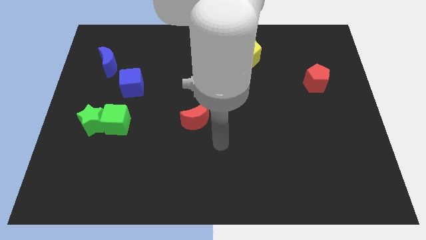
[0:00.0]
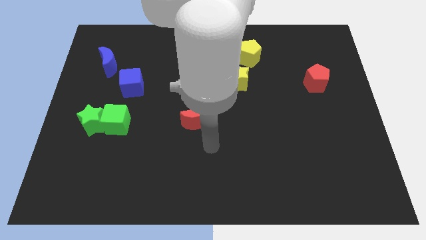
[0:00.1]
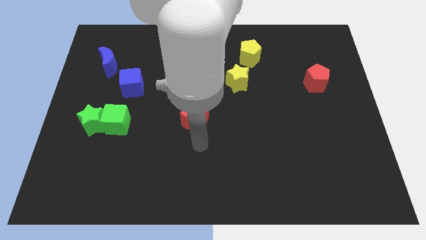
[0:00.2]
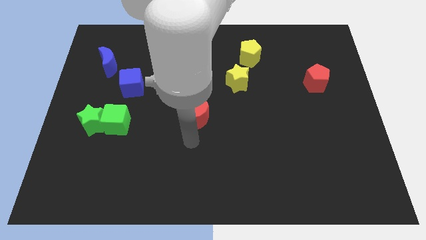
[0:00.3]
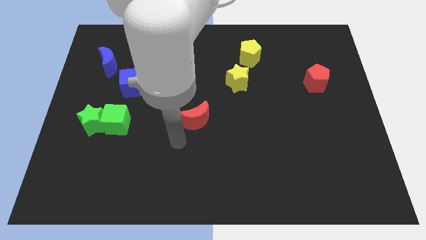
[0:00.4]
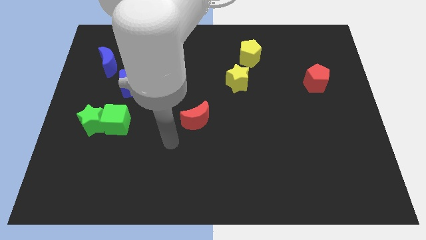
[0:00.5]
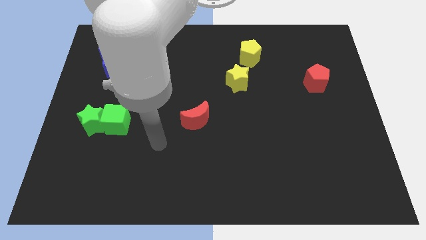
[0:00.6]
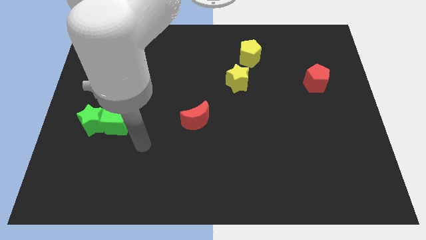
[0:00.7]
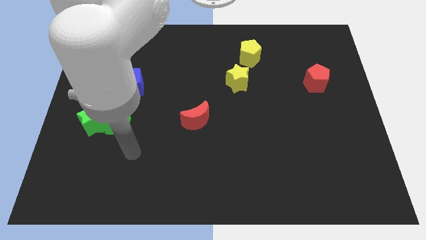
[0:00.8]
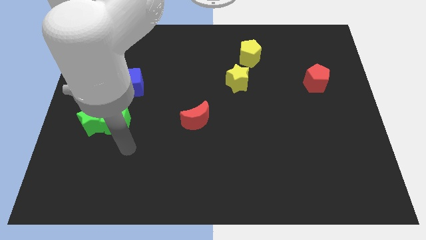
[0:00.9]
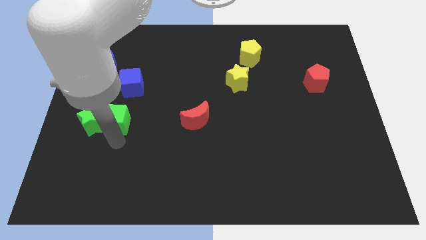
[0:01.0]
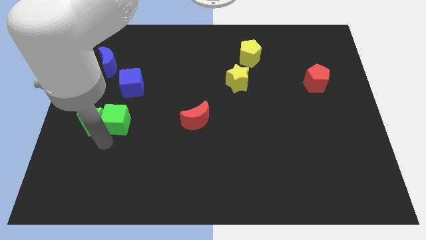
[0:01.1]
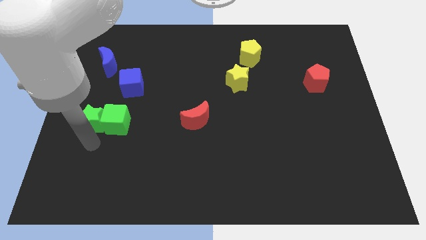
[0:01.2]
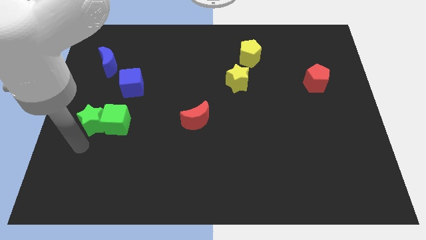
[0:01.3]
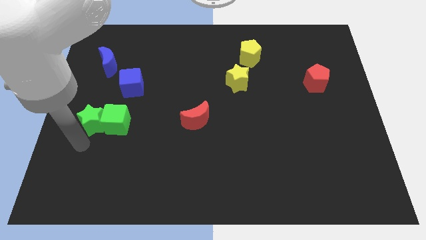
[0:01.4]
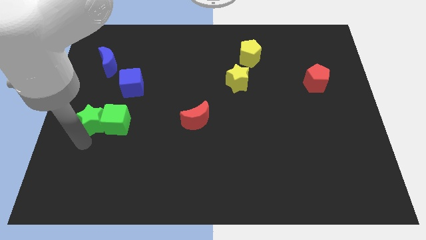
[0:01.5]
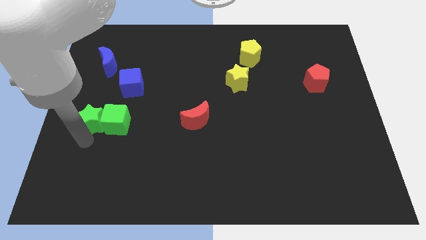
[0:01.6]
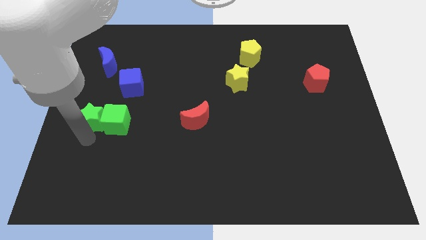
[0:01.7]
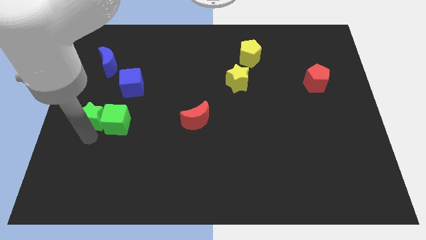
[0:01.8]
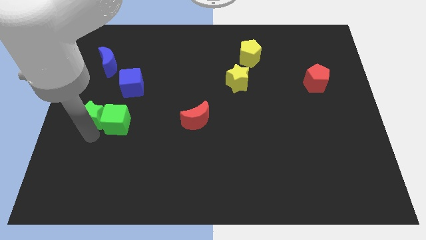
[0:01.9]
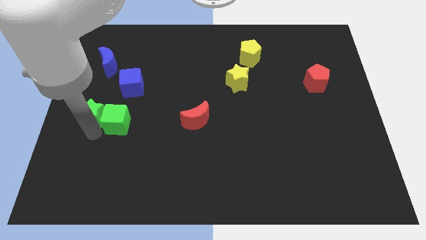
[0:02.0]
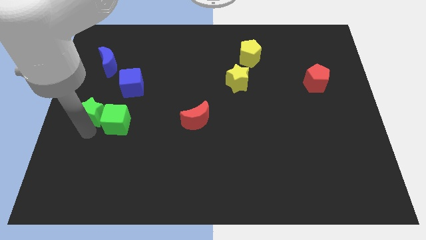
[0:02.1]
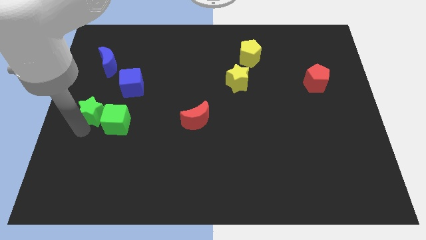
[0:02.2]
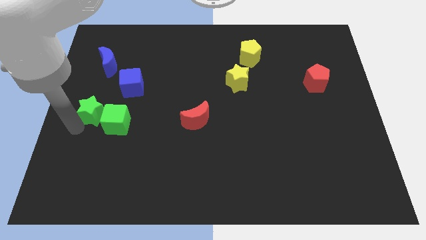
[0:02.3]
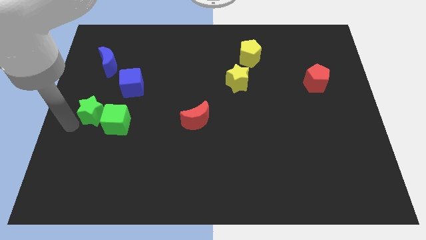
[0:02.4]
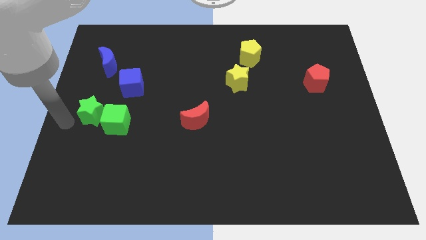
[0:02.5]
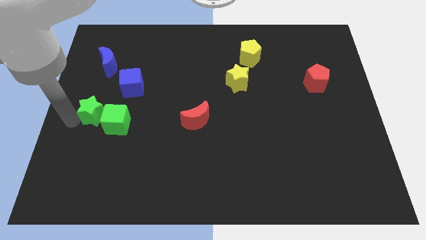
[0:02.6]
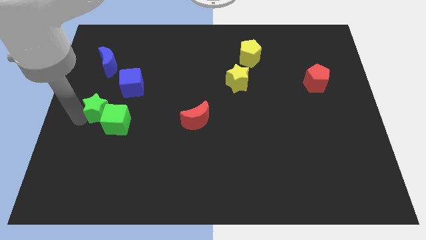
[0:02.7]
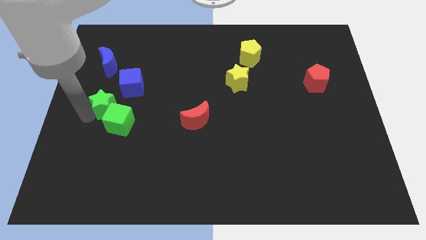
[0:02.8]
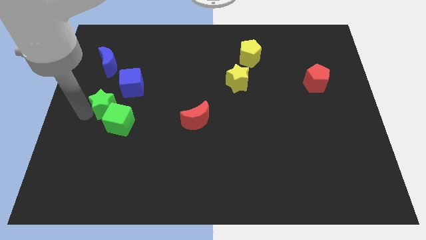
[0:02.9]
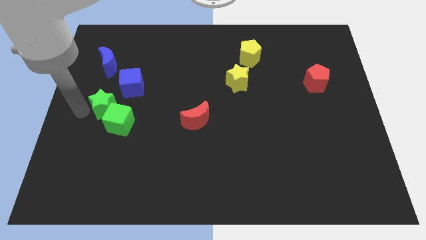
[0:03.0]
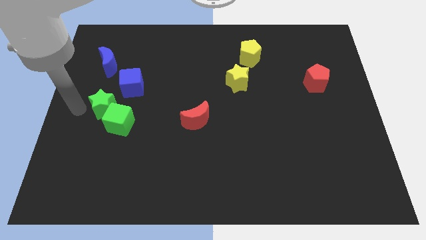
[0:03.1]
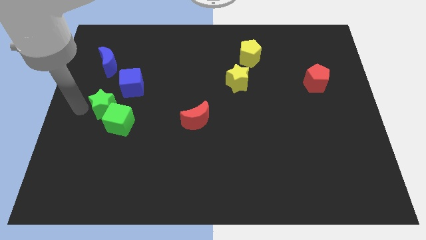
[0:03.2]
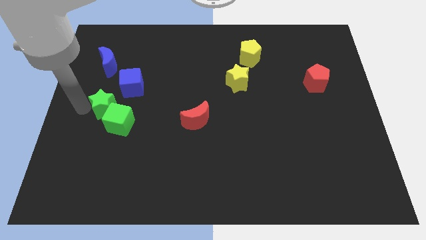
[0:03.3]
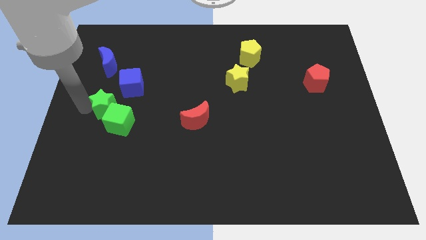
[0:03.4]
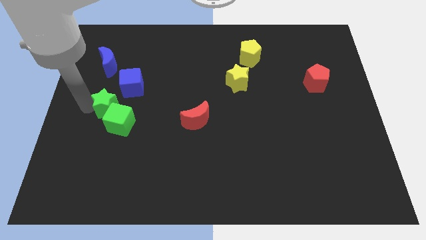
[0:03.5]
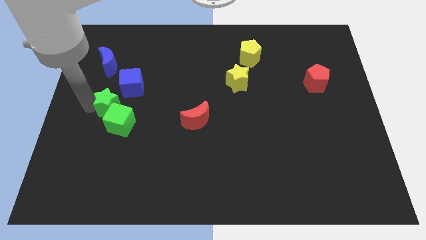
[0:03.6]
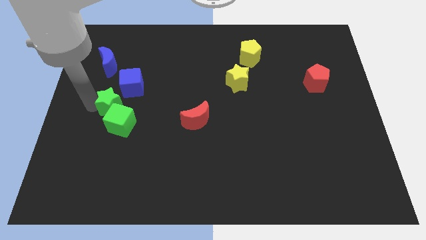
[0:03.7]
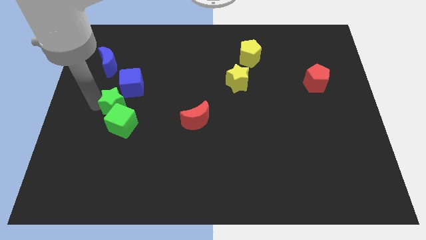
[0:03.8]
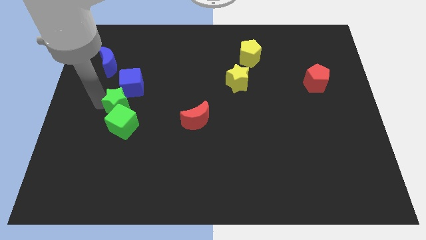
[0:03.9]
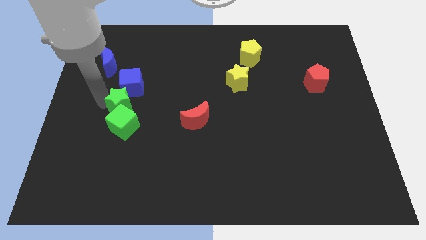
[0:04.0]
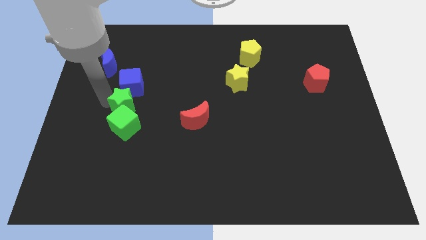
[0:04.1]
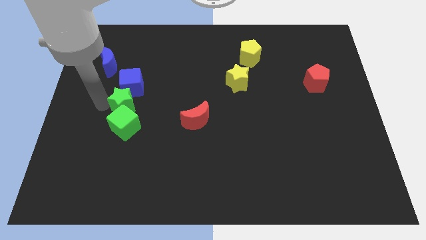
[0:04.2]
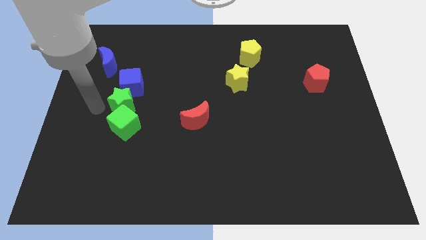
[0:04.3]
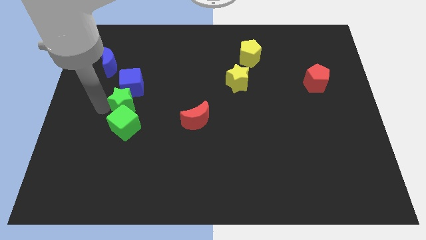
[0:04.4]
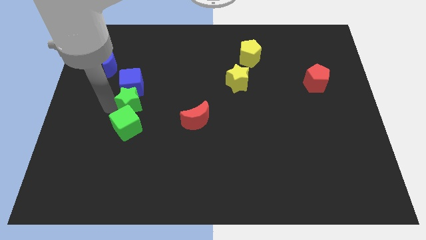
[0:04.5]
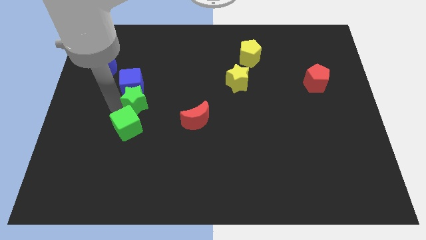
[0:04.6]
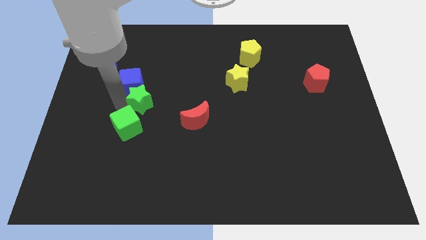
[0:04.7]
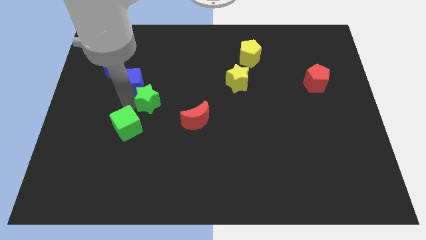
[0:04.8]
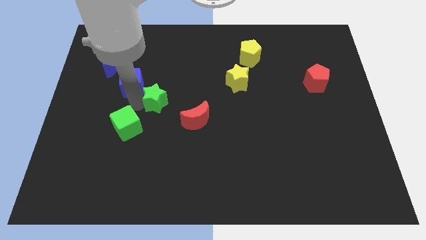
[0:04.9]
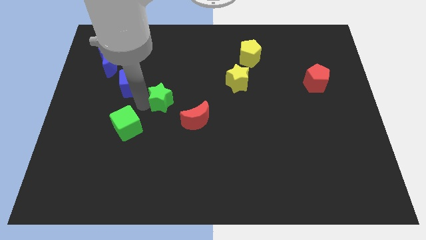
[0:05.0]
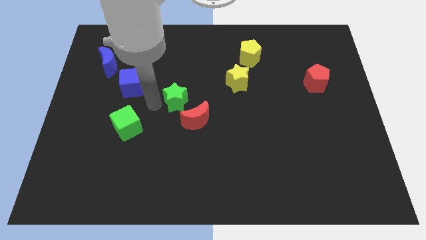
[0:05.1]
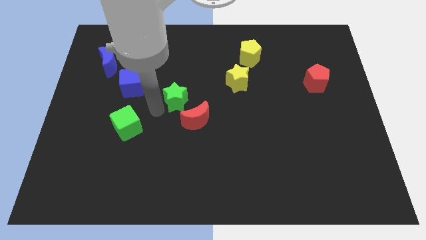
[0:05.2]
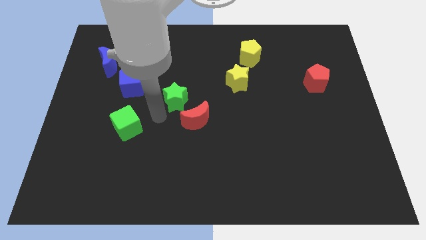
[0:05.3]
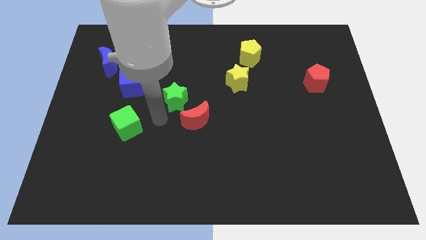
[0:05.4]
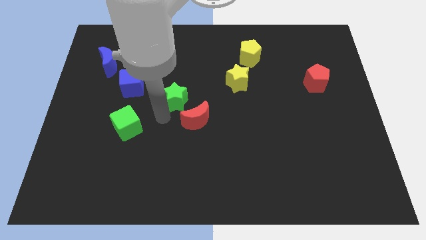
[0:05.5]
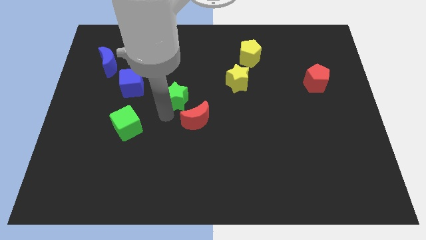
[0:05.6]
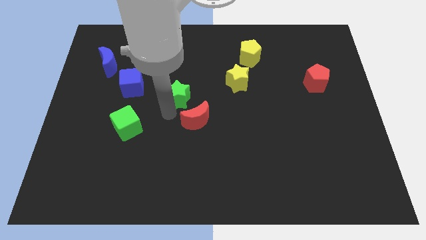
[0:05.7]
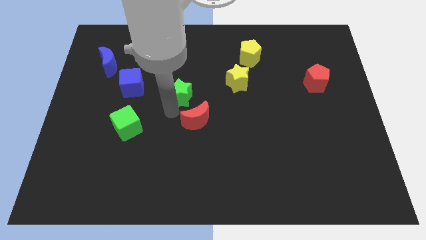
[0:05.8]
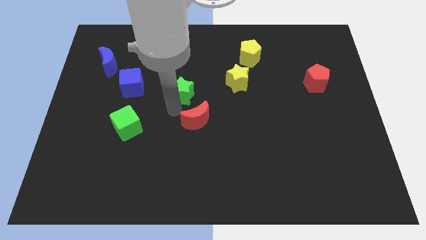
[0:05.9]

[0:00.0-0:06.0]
push the green star left of the yellow star

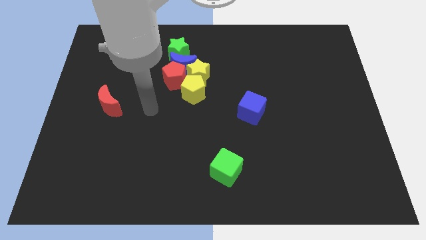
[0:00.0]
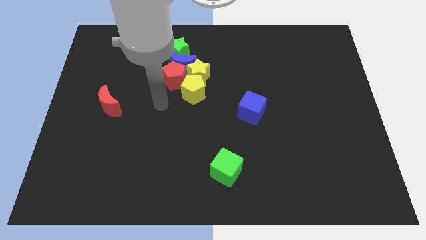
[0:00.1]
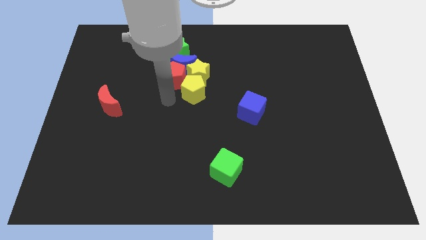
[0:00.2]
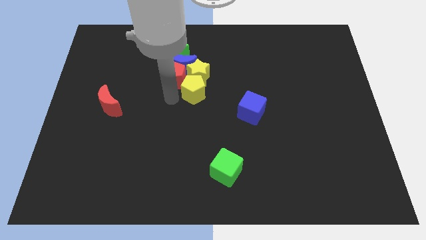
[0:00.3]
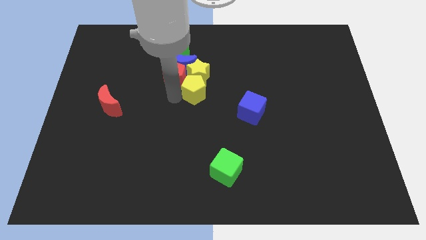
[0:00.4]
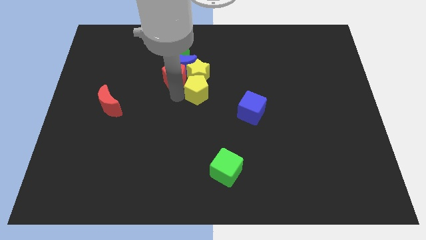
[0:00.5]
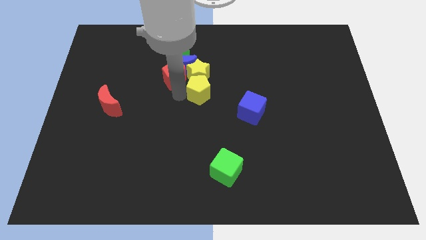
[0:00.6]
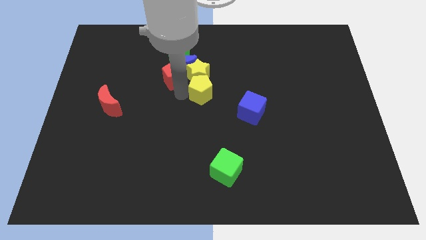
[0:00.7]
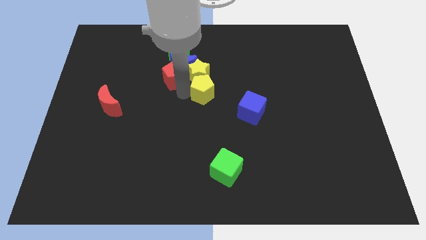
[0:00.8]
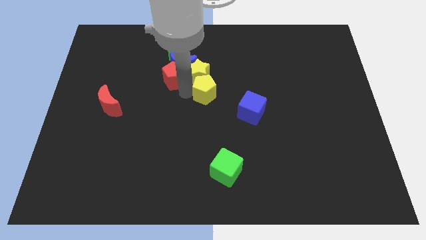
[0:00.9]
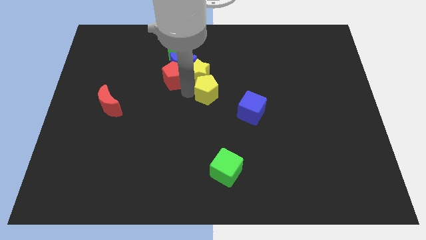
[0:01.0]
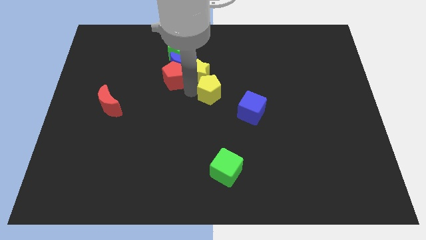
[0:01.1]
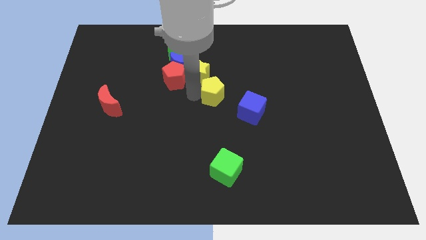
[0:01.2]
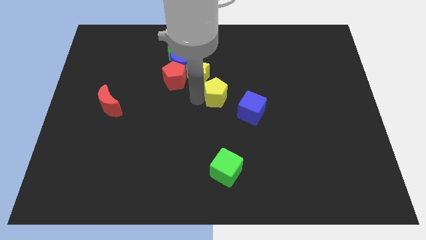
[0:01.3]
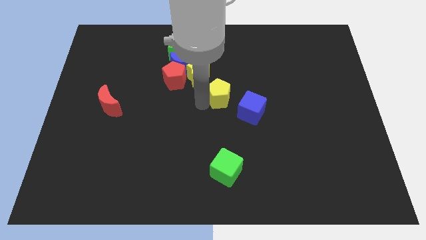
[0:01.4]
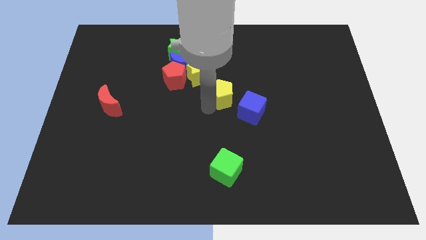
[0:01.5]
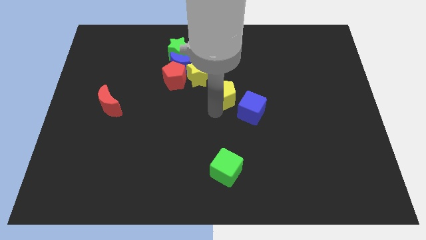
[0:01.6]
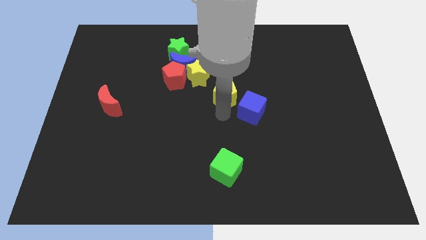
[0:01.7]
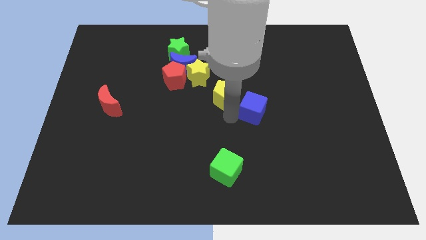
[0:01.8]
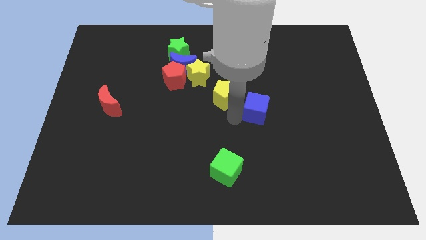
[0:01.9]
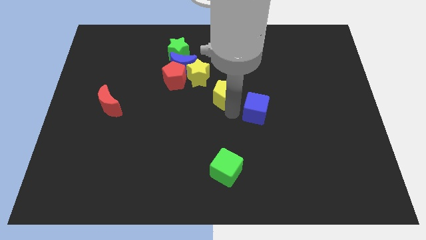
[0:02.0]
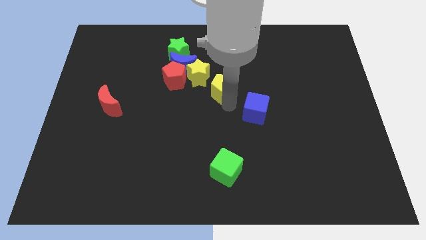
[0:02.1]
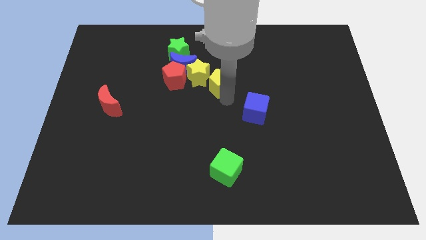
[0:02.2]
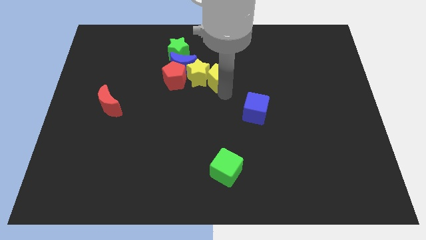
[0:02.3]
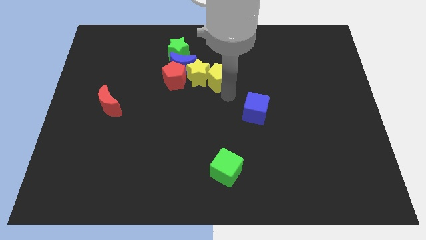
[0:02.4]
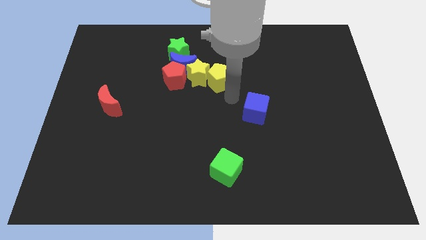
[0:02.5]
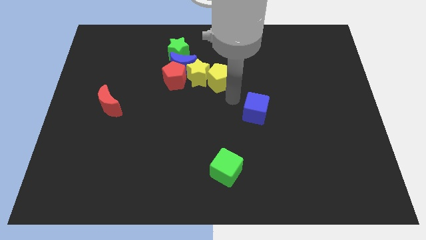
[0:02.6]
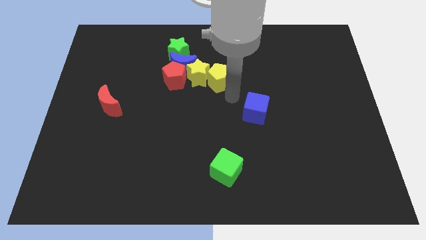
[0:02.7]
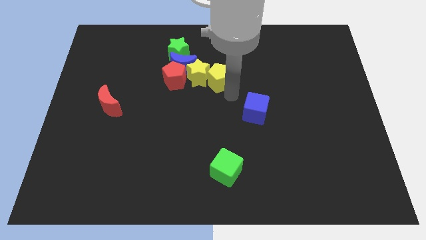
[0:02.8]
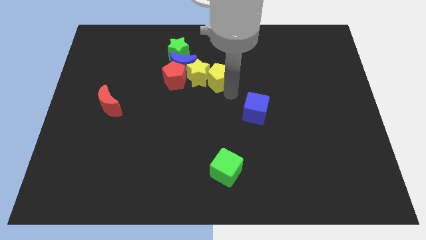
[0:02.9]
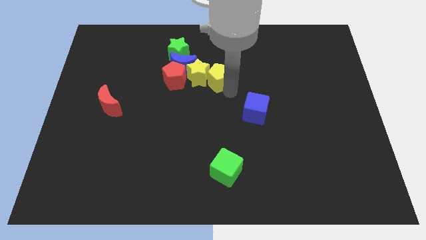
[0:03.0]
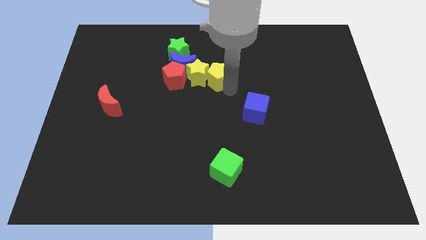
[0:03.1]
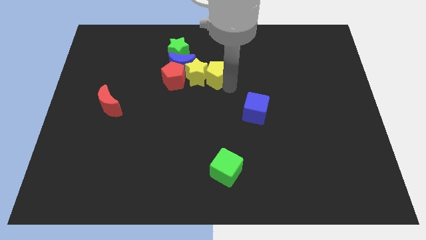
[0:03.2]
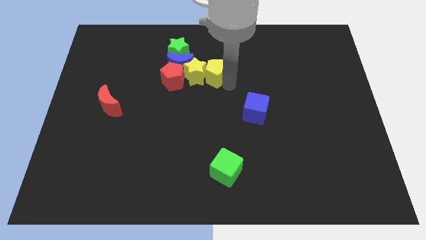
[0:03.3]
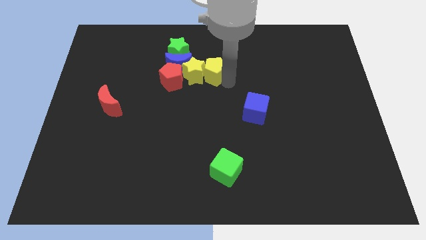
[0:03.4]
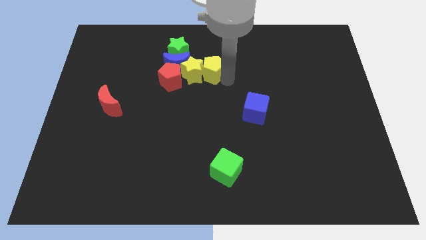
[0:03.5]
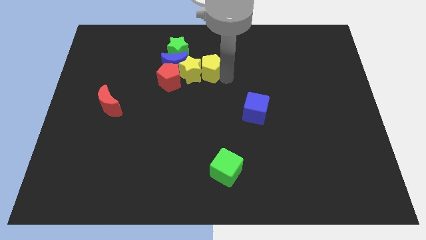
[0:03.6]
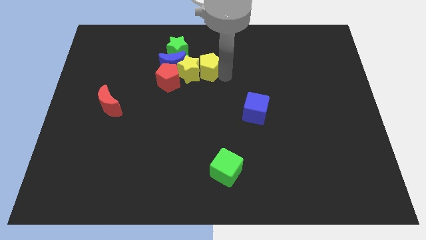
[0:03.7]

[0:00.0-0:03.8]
slide the yellow pentagon diagonally up and to the right of the red pentagon
